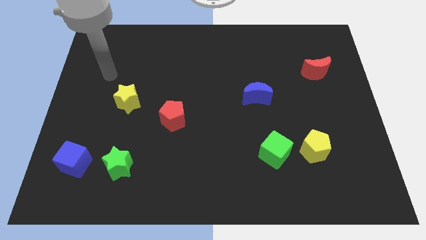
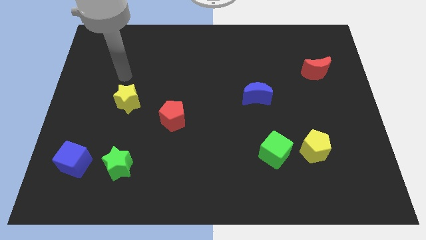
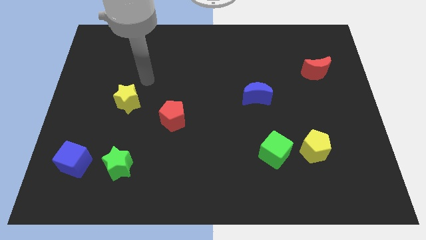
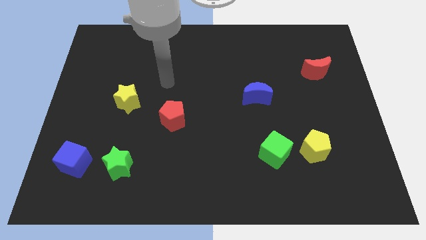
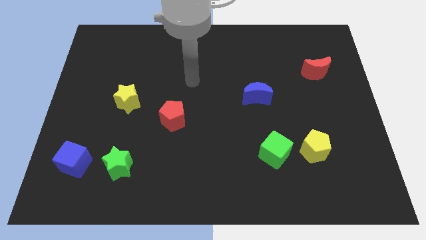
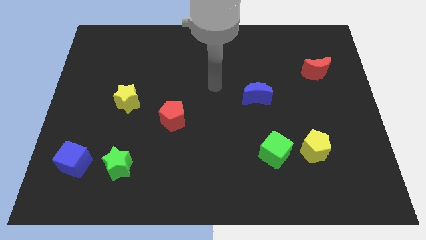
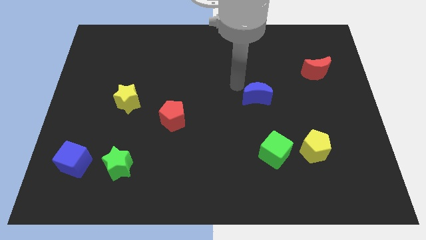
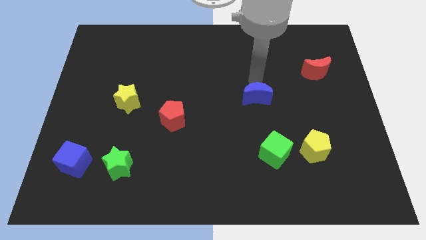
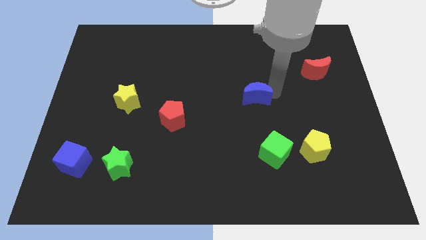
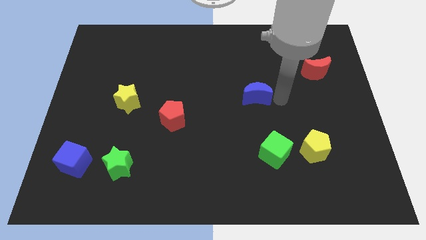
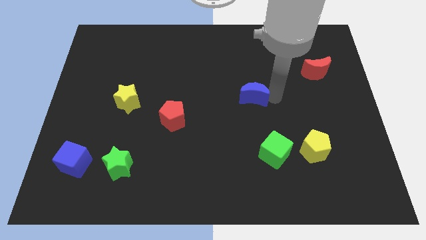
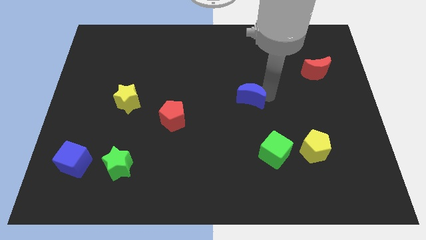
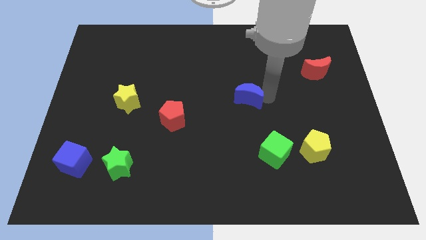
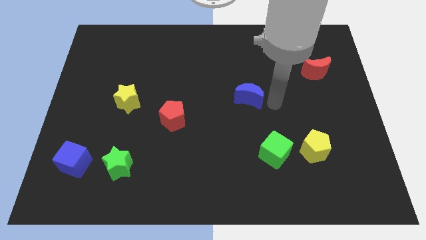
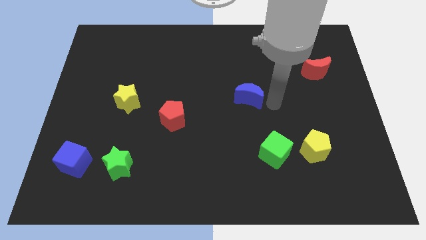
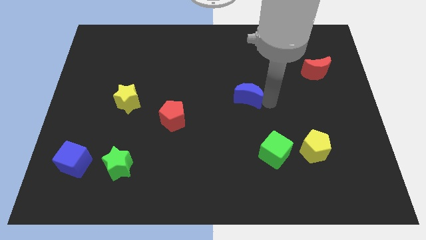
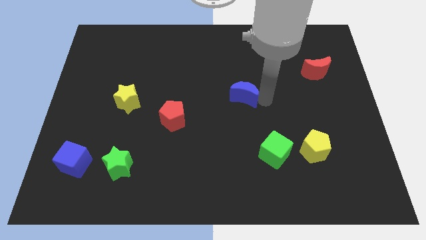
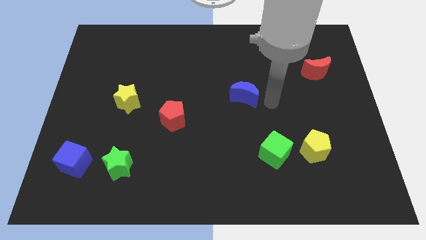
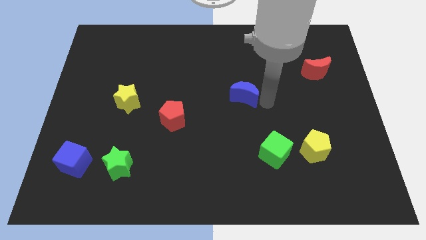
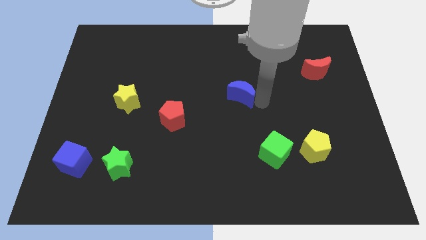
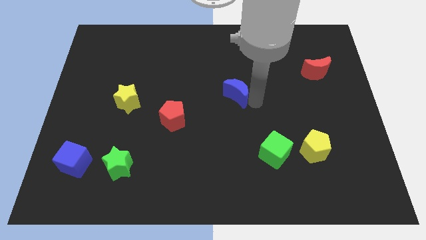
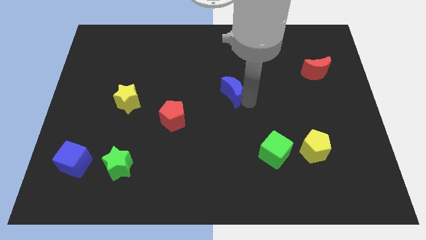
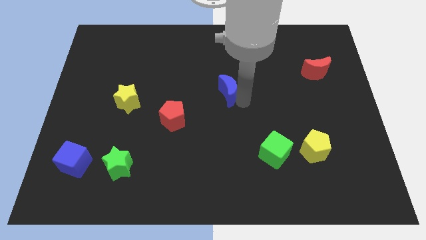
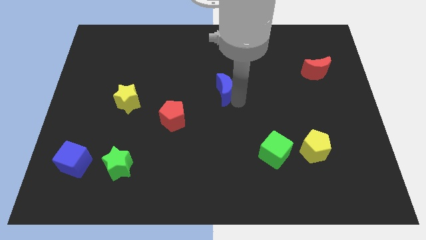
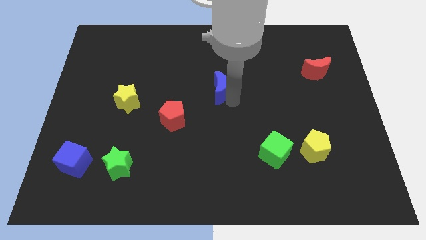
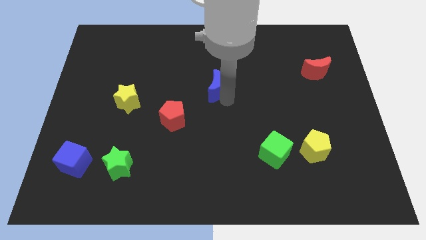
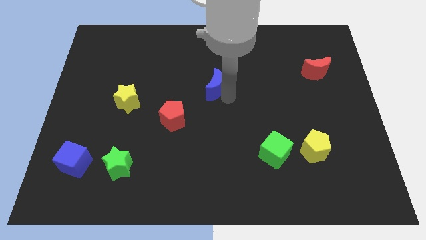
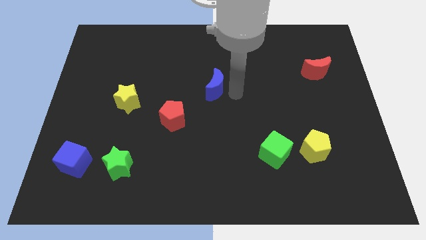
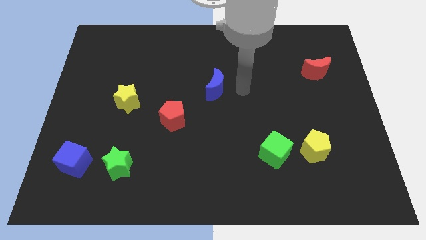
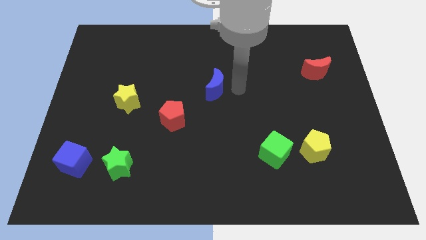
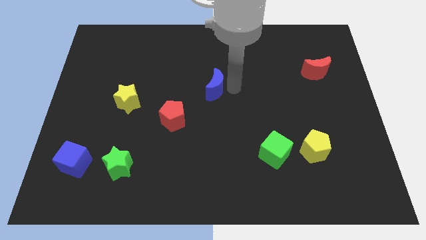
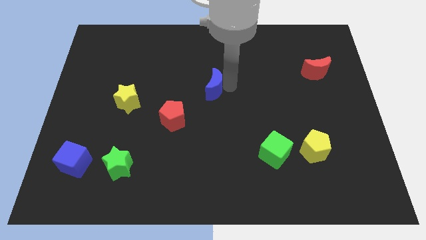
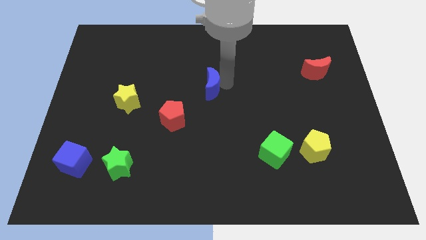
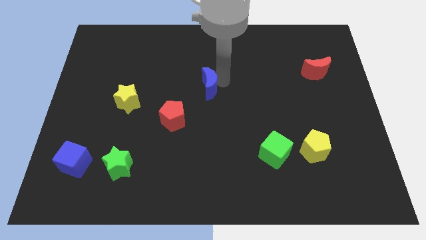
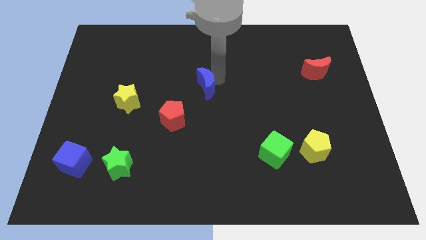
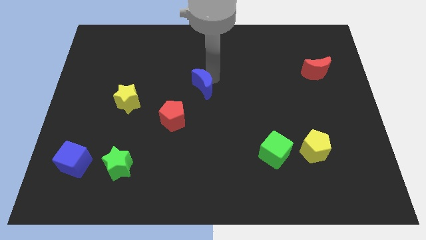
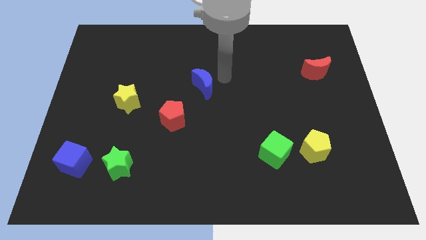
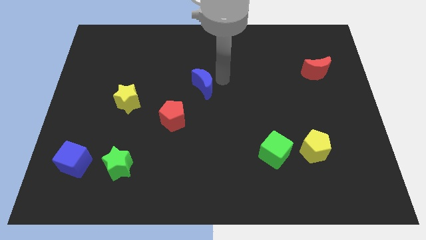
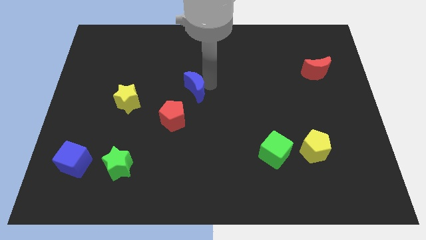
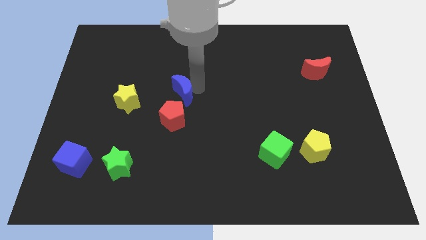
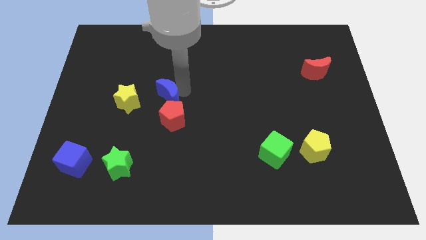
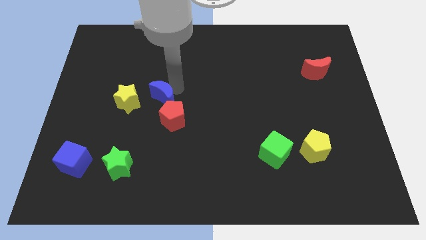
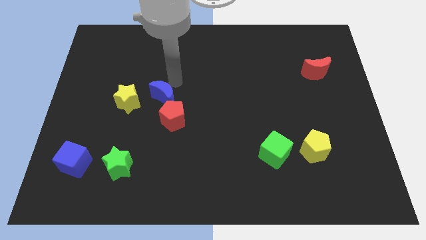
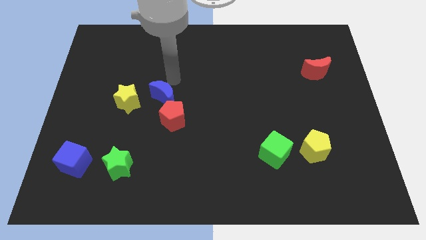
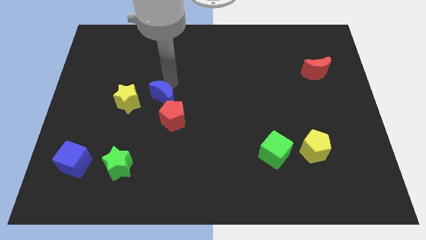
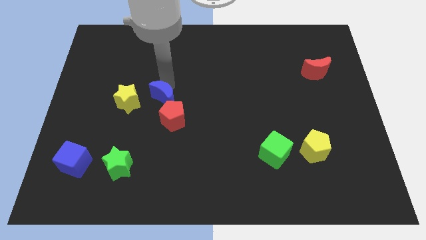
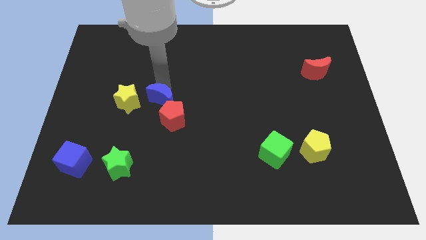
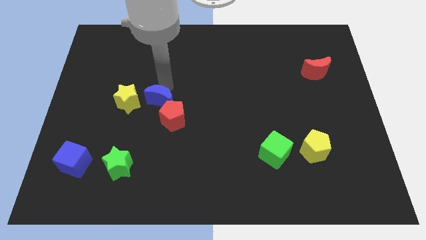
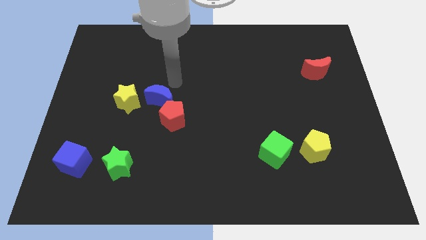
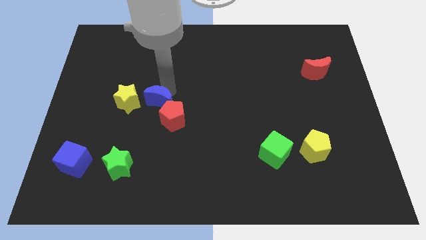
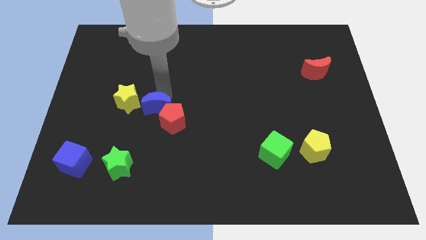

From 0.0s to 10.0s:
push the blue moon to the bottom right side of the yellow star
